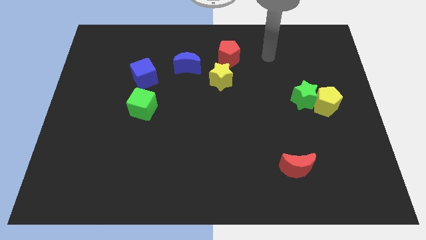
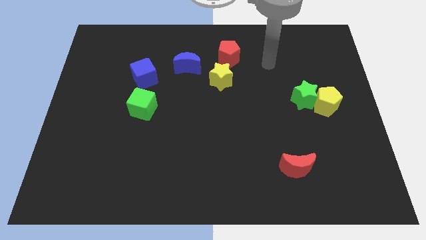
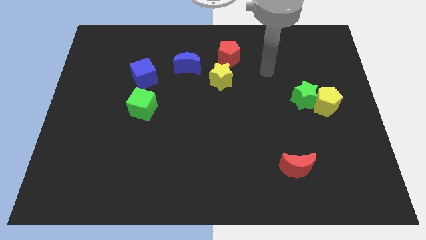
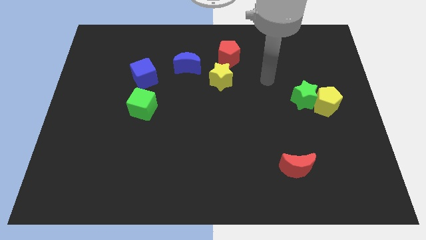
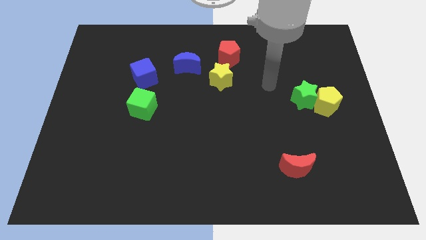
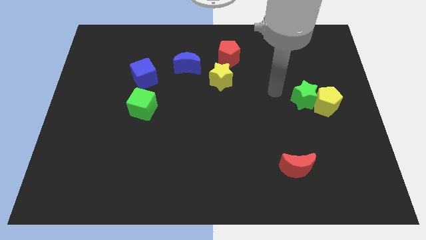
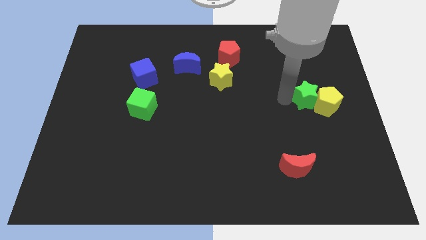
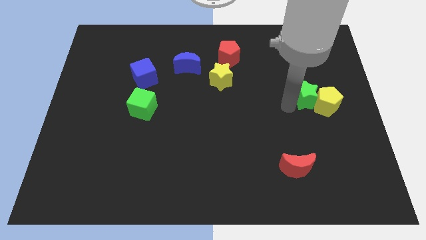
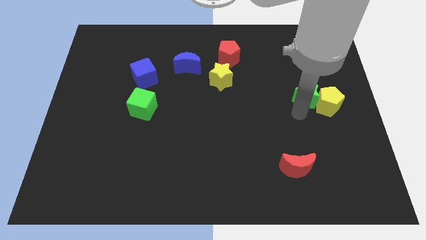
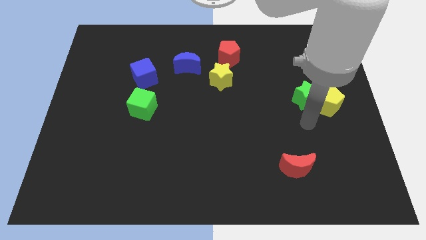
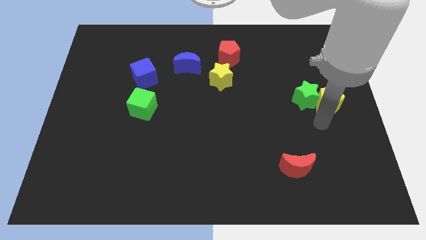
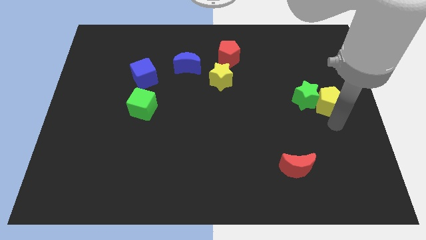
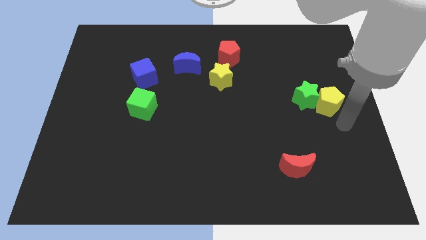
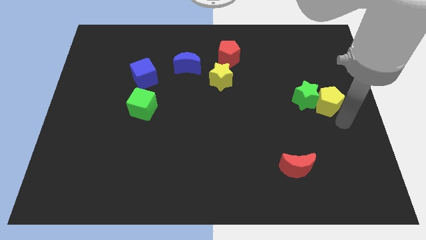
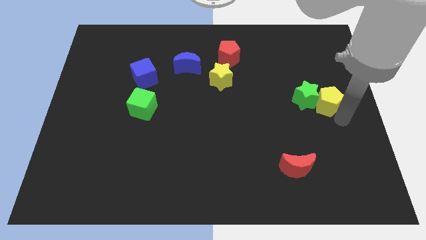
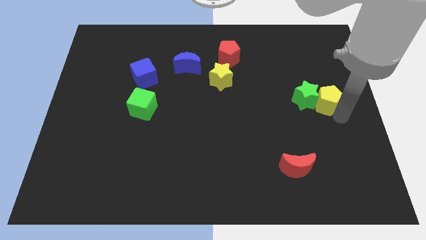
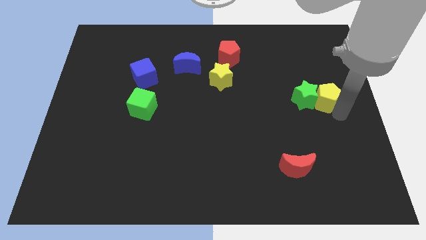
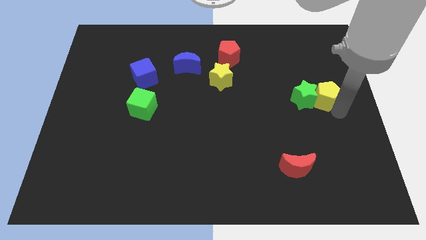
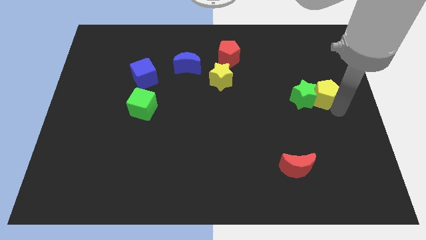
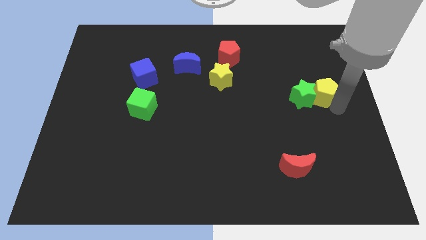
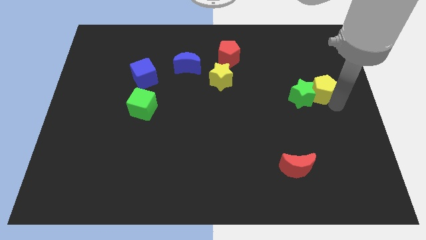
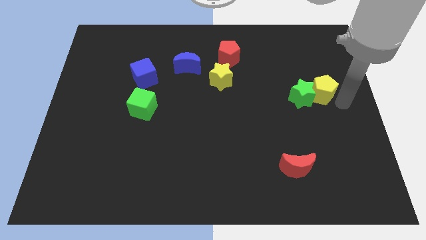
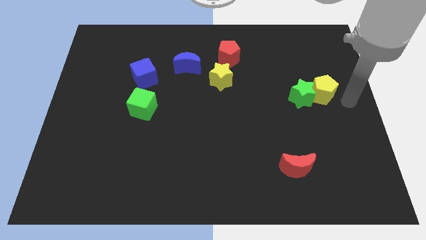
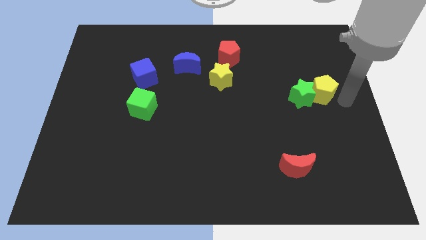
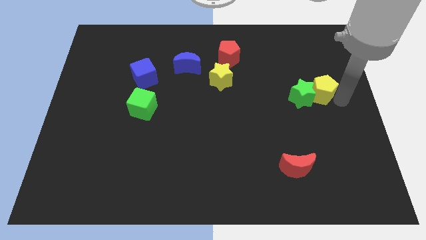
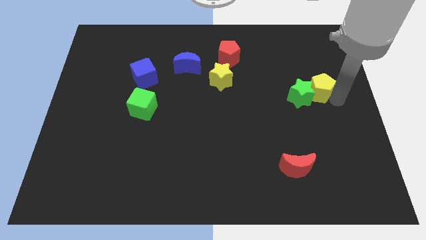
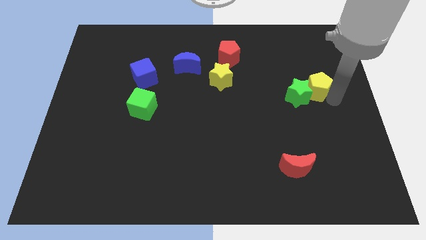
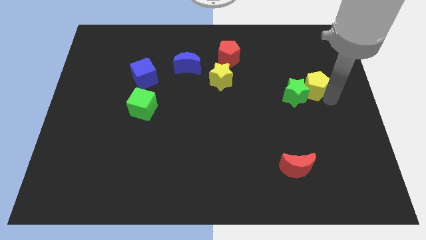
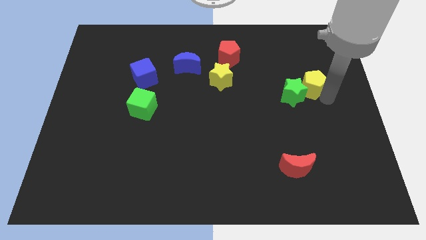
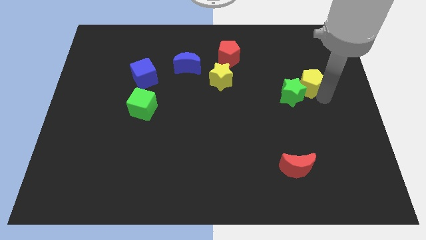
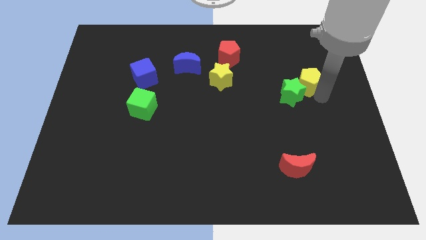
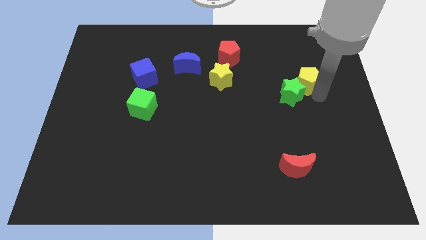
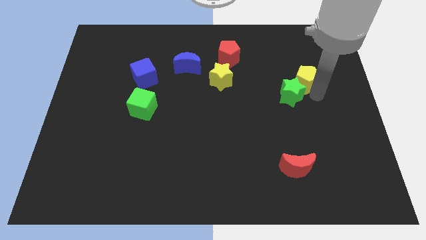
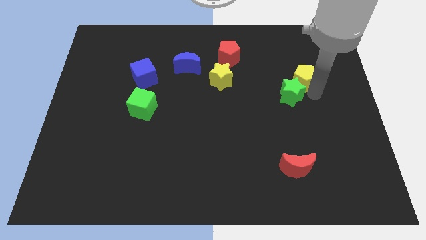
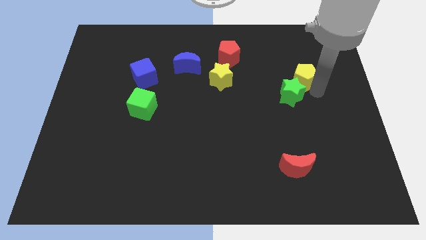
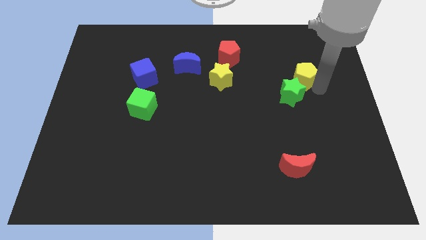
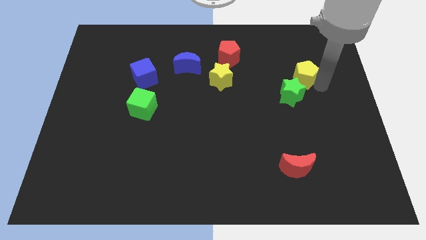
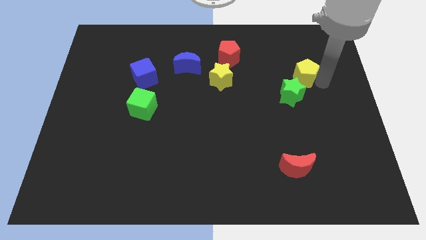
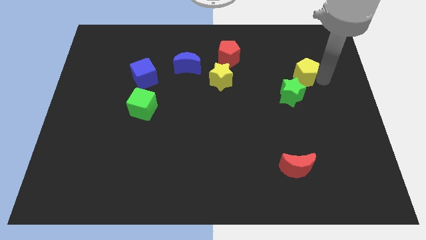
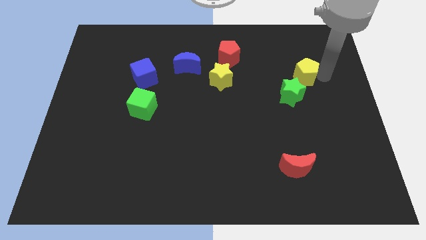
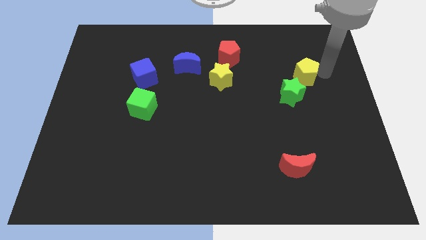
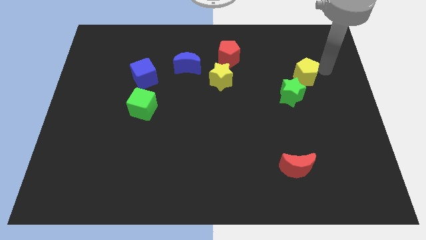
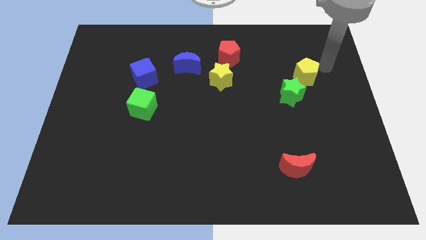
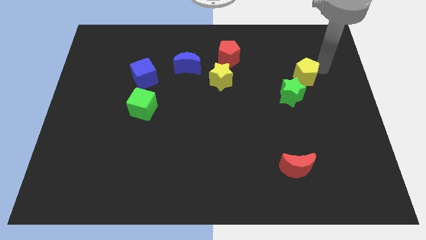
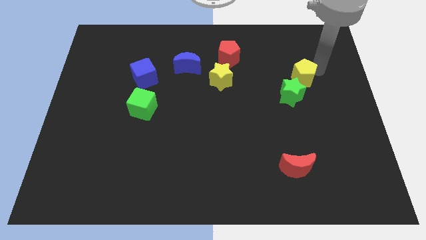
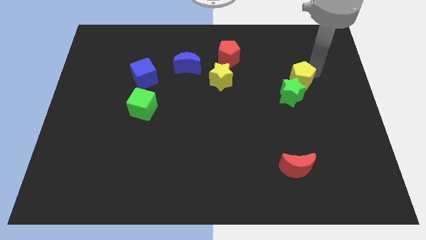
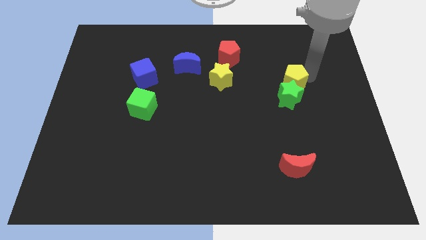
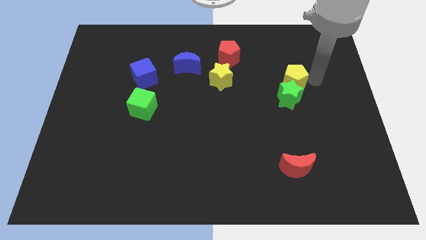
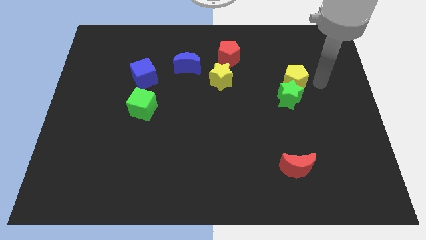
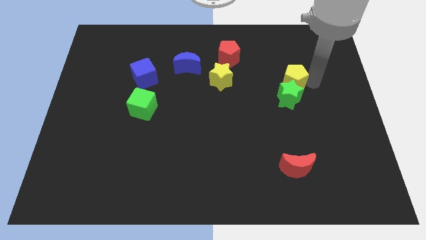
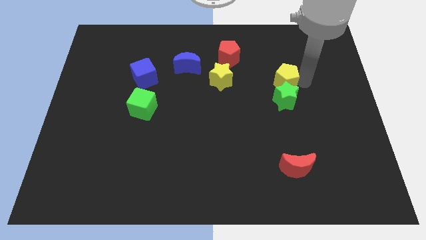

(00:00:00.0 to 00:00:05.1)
push the yellow pentagon right of the yellow star

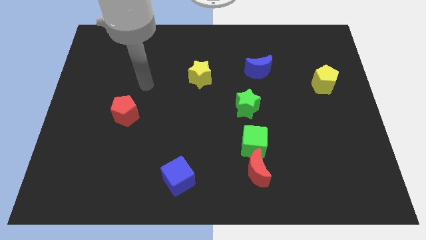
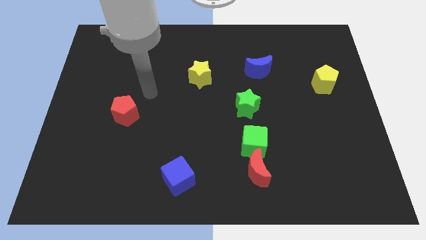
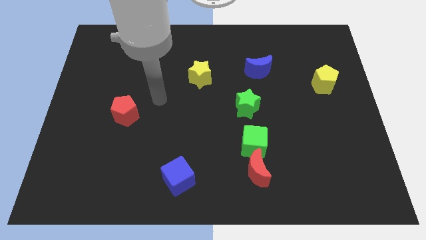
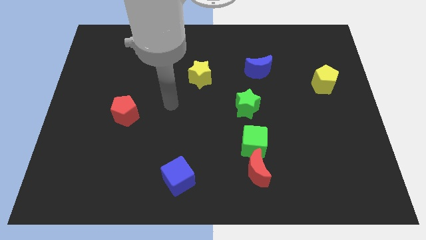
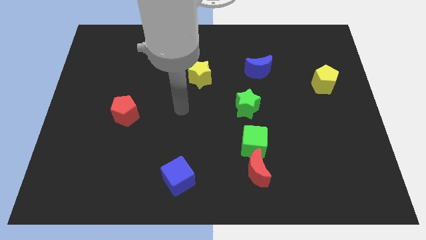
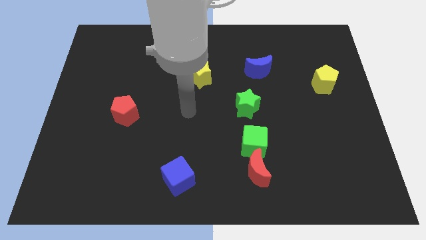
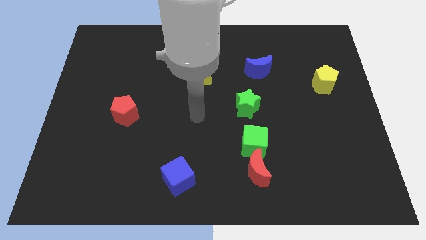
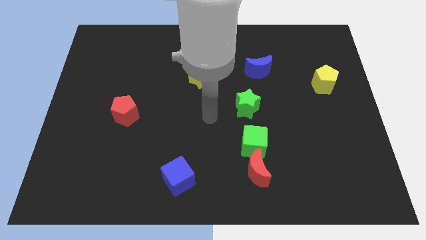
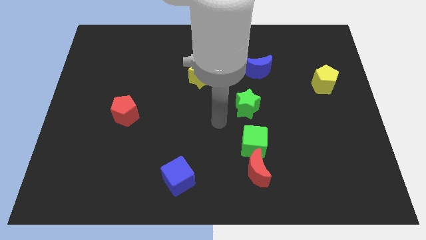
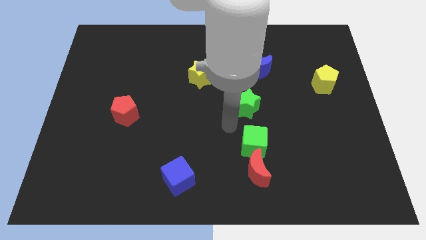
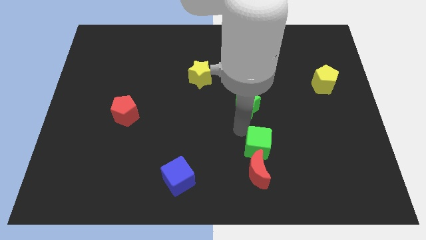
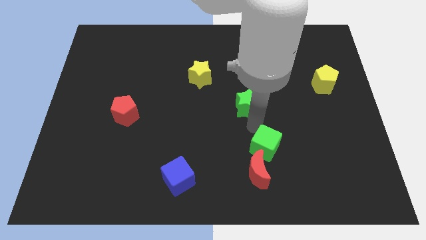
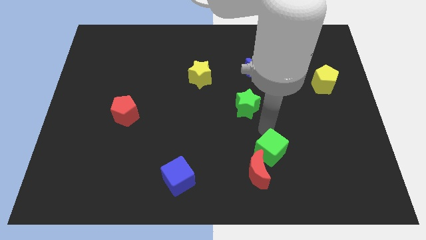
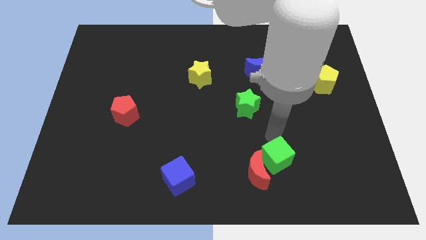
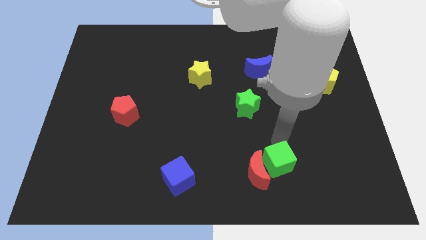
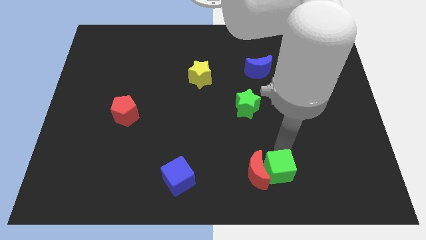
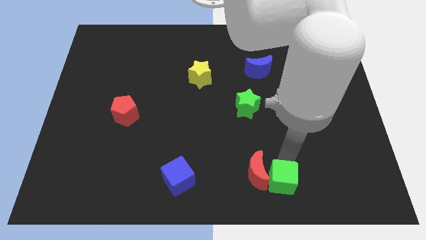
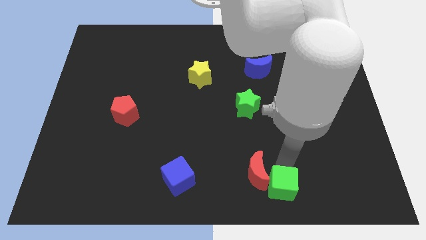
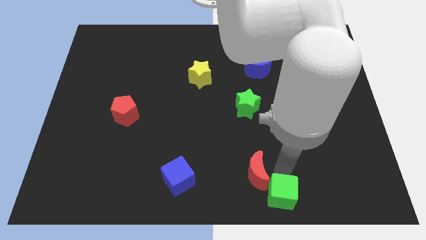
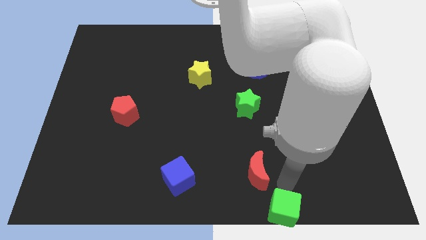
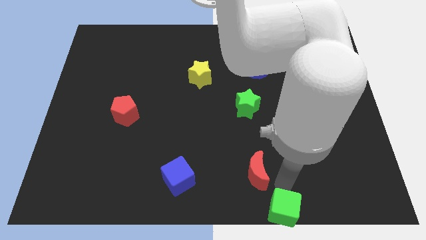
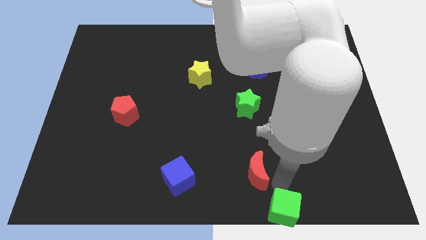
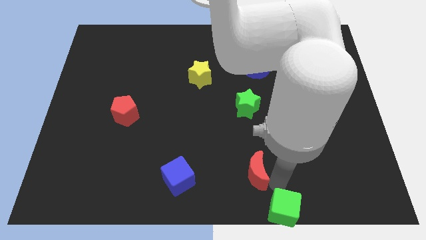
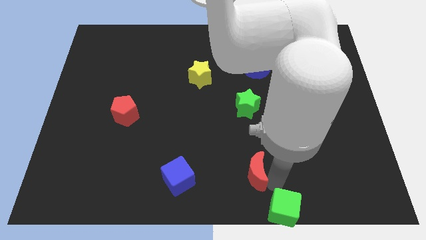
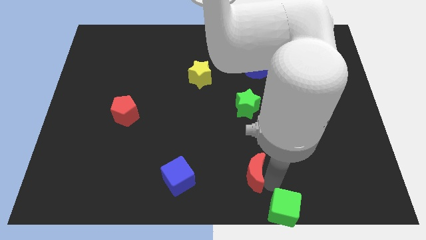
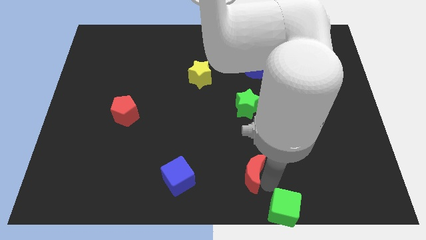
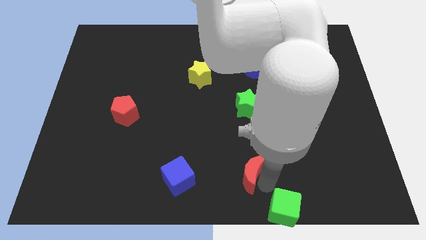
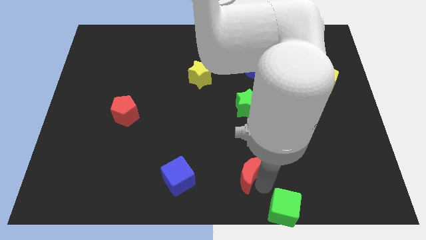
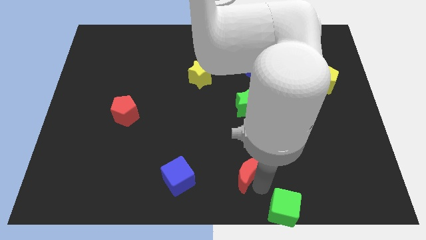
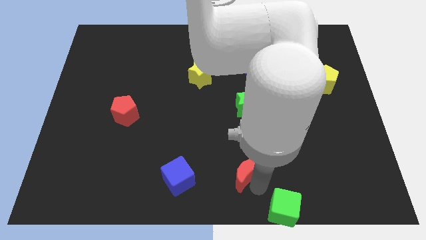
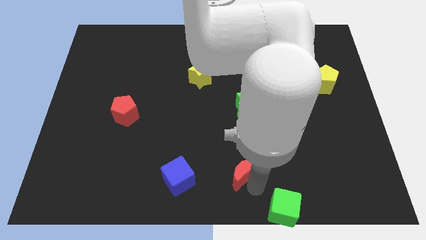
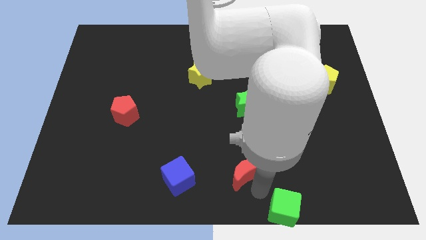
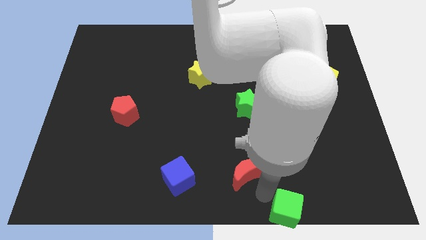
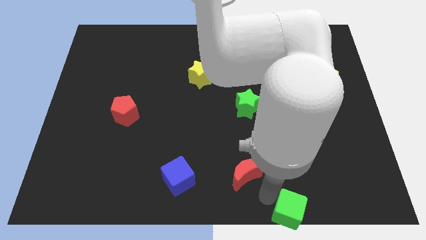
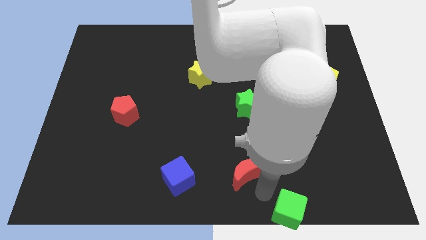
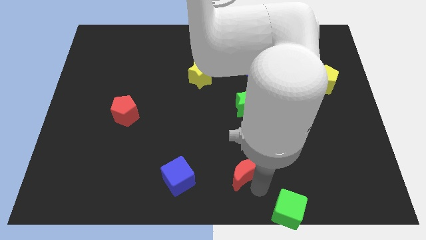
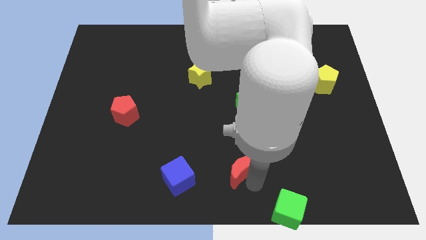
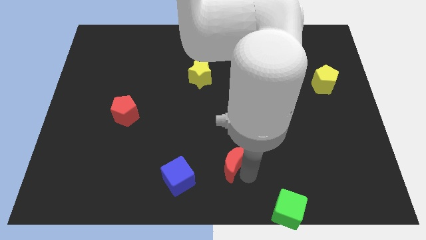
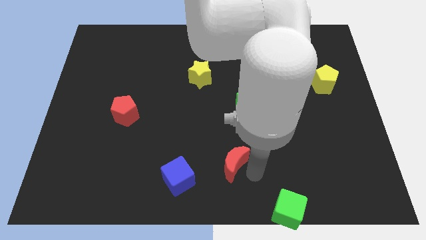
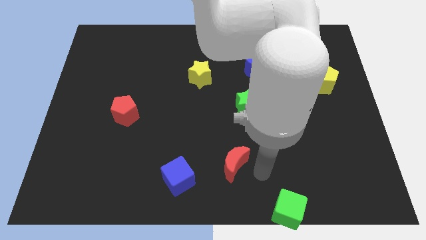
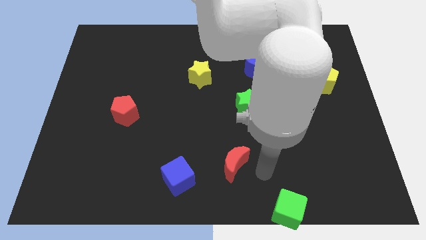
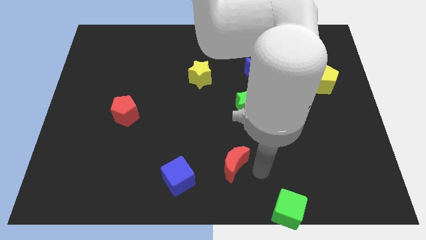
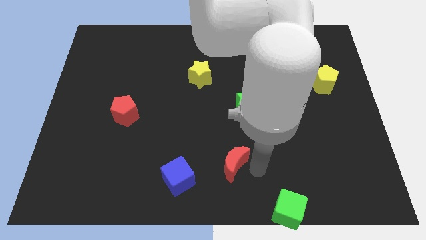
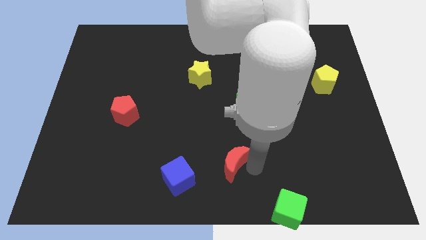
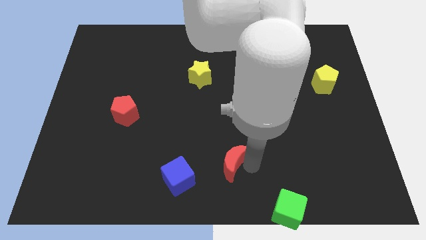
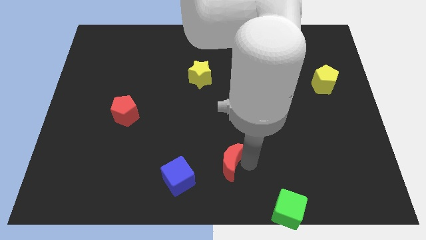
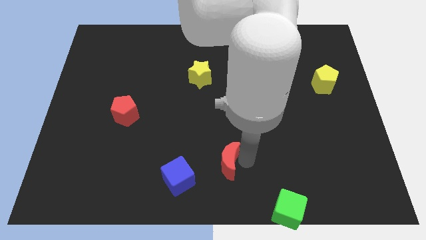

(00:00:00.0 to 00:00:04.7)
slide the red moon to the top right of the blue cube
